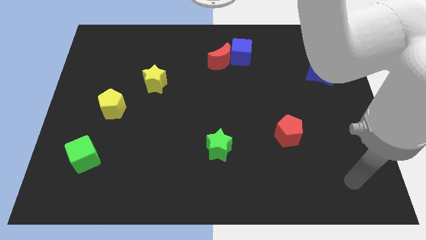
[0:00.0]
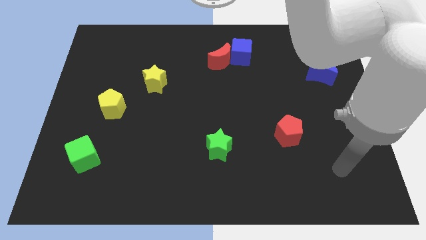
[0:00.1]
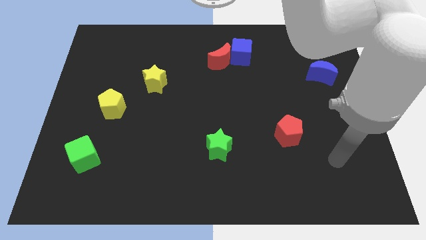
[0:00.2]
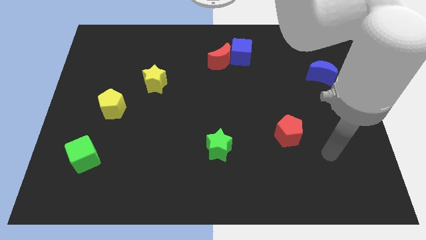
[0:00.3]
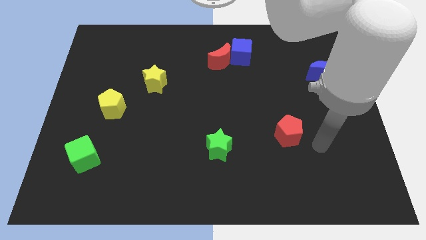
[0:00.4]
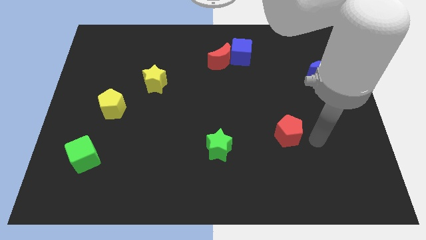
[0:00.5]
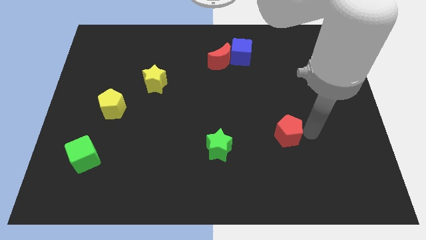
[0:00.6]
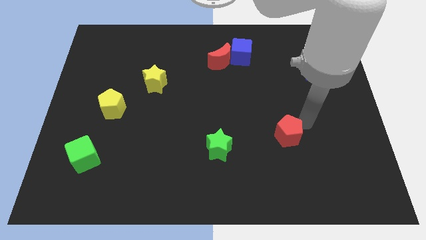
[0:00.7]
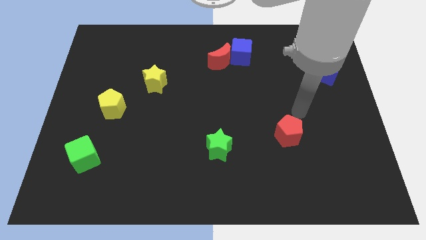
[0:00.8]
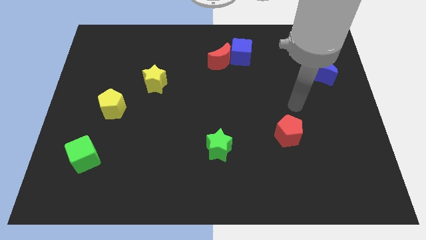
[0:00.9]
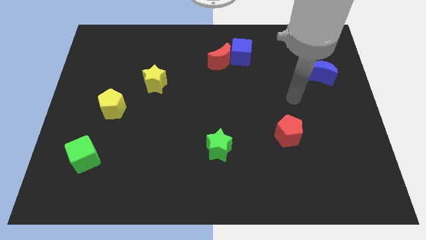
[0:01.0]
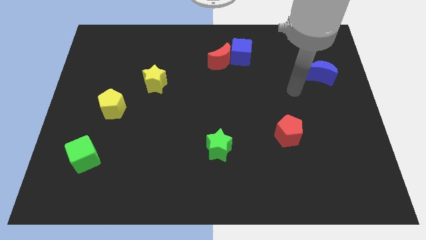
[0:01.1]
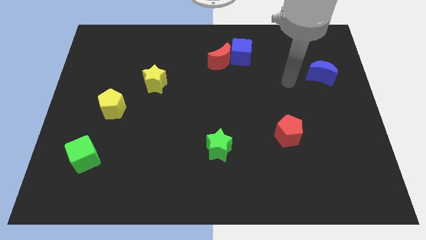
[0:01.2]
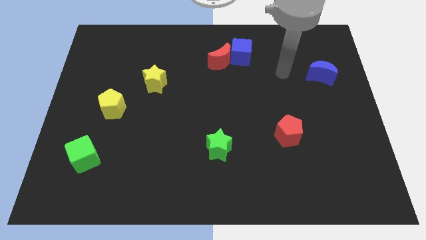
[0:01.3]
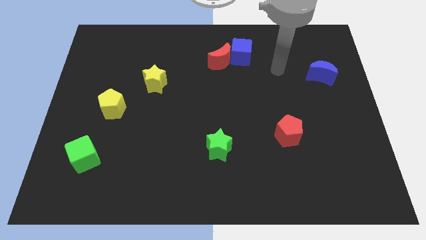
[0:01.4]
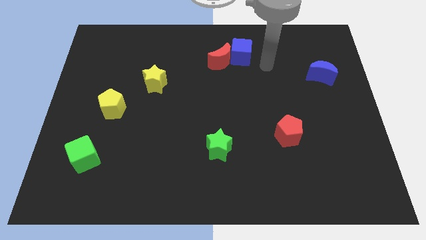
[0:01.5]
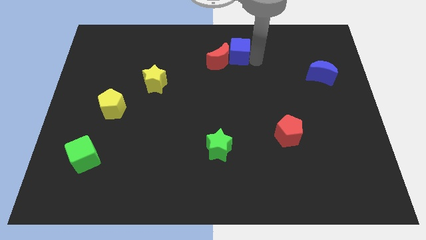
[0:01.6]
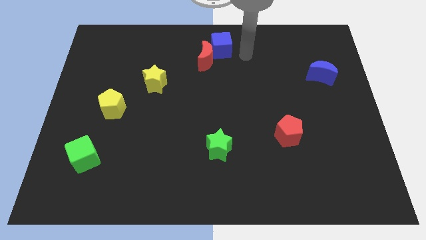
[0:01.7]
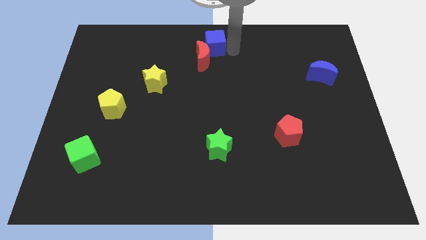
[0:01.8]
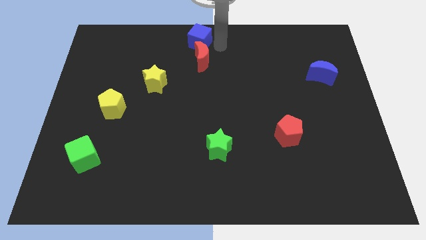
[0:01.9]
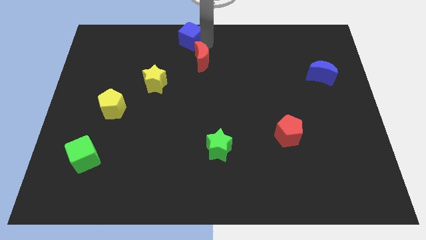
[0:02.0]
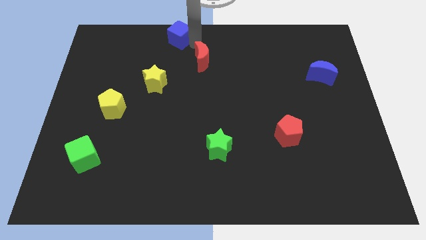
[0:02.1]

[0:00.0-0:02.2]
separate the red moon from the blue cube

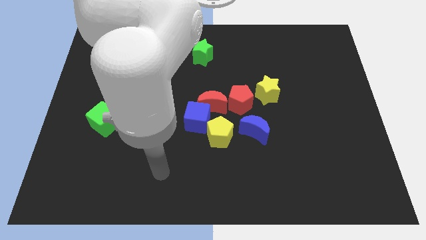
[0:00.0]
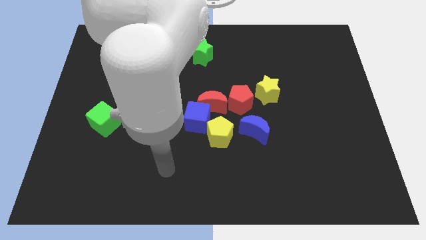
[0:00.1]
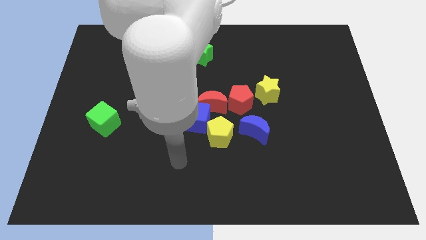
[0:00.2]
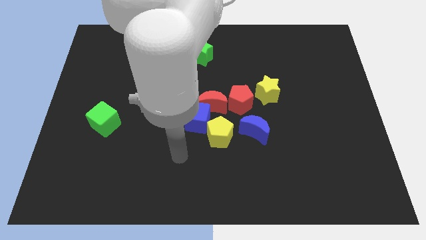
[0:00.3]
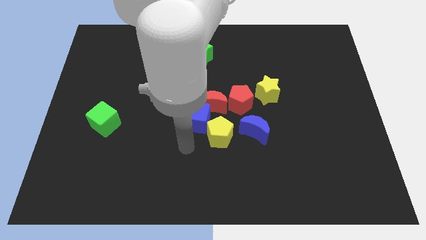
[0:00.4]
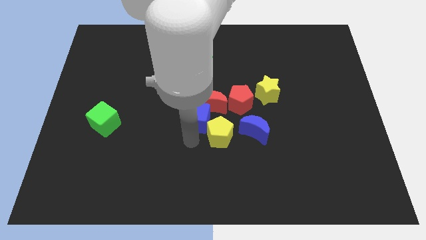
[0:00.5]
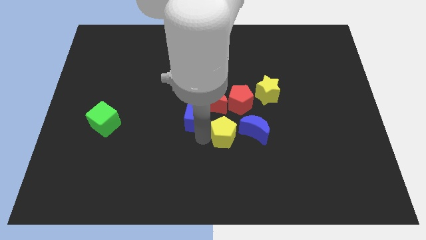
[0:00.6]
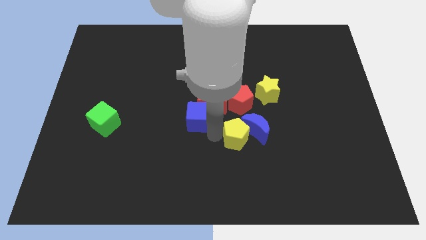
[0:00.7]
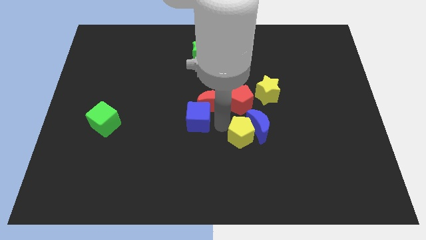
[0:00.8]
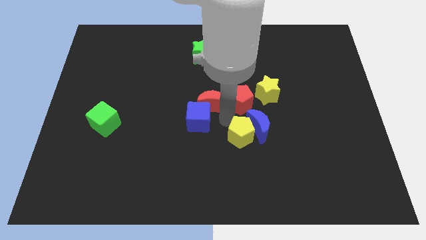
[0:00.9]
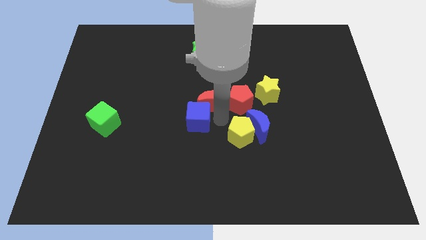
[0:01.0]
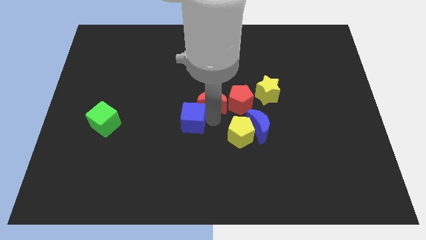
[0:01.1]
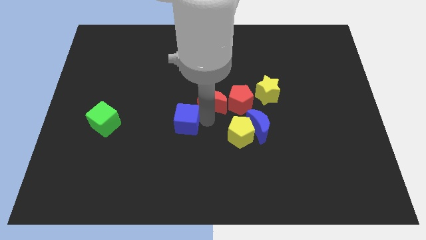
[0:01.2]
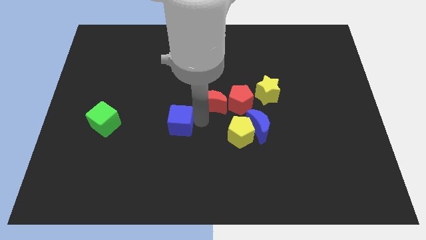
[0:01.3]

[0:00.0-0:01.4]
pull the blue cube apart from the red moon and yellow pentagon

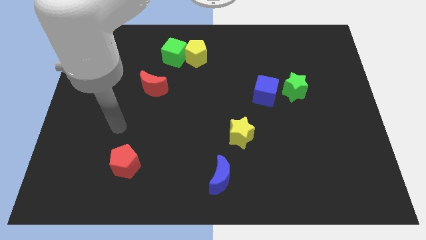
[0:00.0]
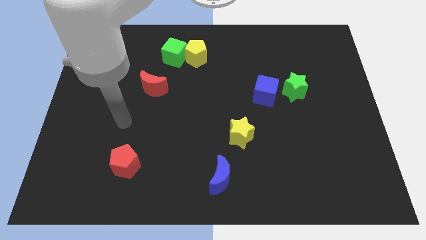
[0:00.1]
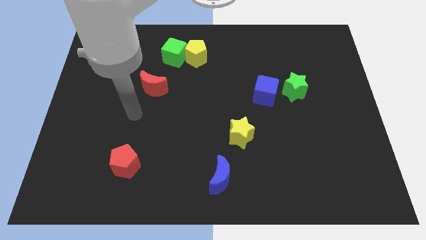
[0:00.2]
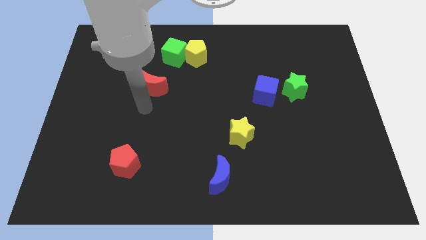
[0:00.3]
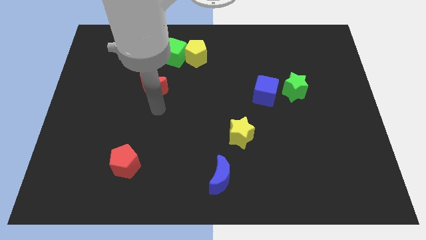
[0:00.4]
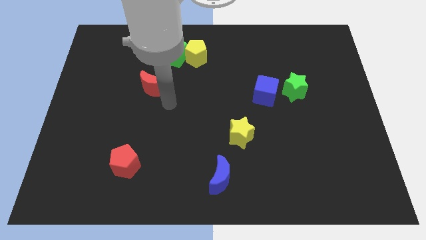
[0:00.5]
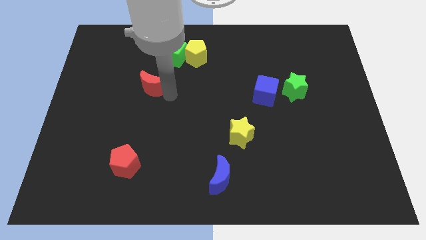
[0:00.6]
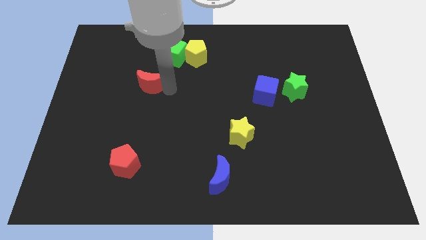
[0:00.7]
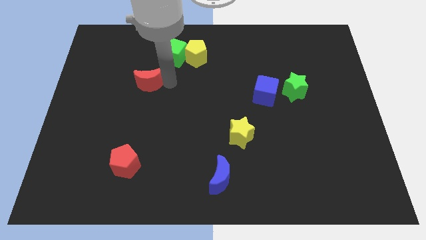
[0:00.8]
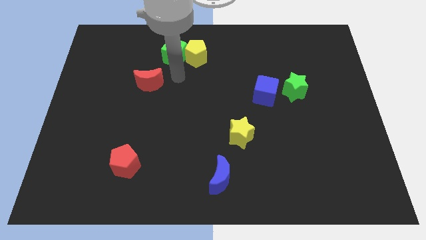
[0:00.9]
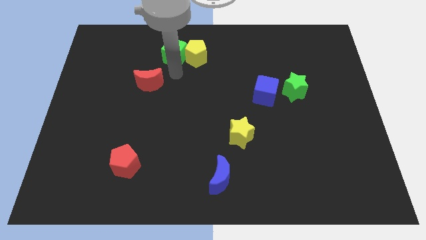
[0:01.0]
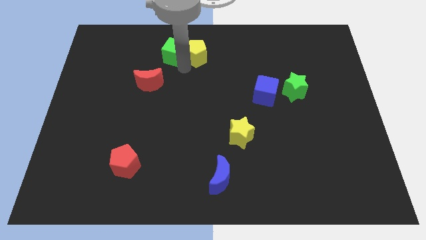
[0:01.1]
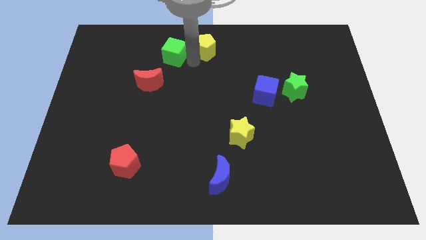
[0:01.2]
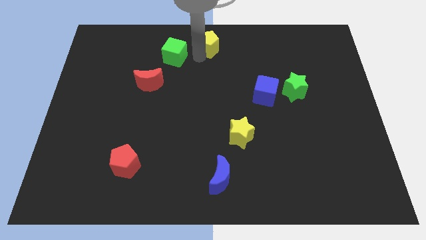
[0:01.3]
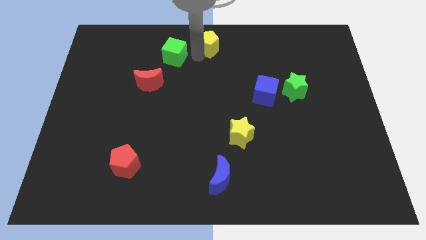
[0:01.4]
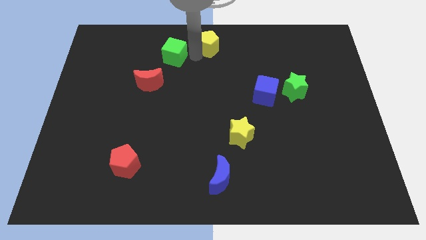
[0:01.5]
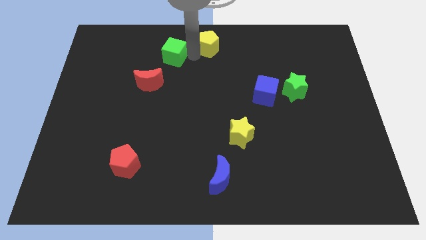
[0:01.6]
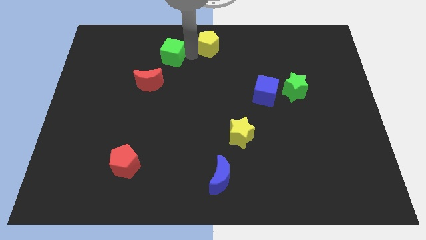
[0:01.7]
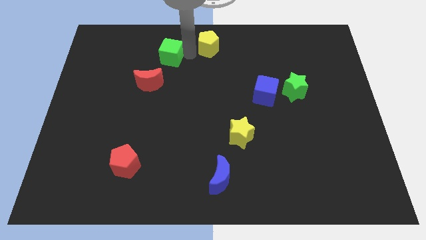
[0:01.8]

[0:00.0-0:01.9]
separate the green cube from the yellow pentagon

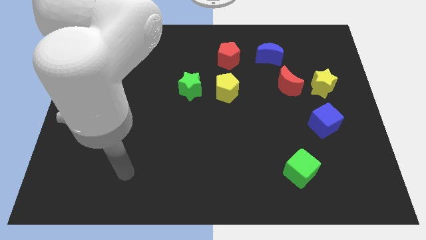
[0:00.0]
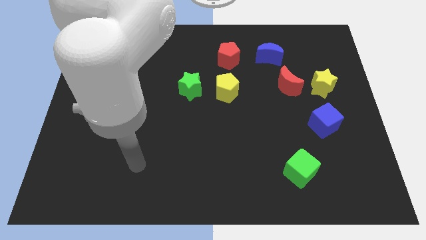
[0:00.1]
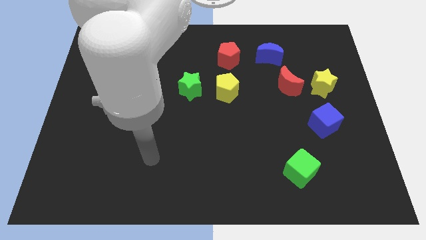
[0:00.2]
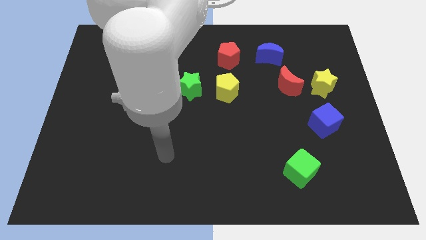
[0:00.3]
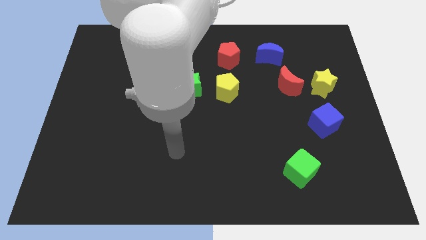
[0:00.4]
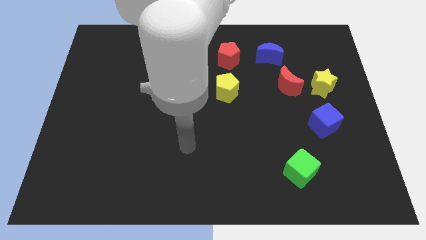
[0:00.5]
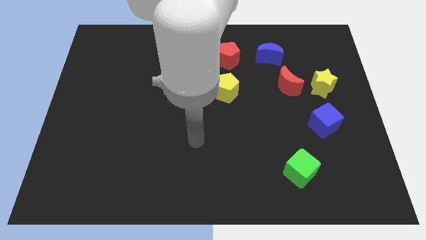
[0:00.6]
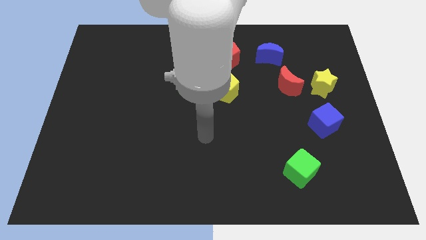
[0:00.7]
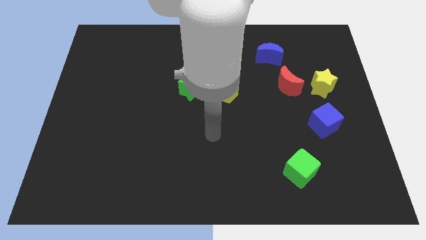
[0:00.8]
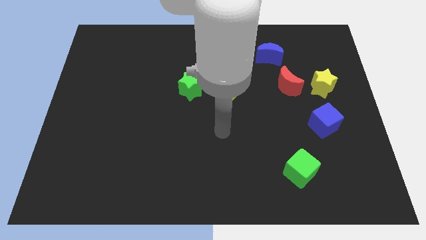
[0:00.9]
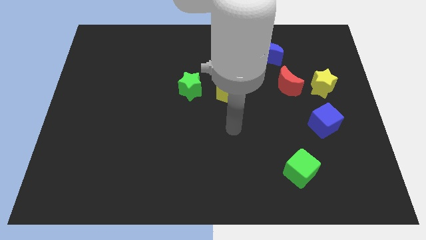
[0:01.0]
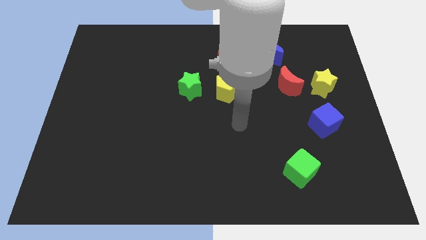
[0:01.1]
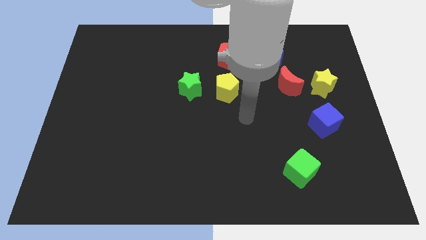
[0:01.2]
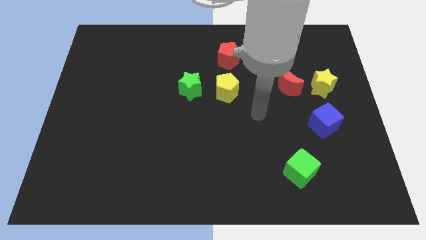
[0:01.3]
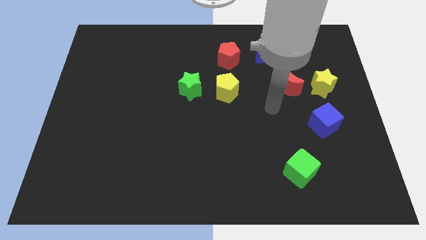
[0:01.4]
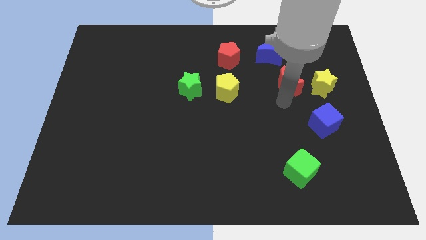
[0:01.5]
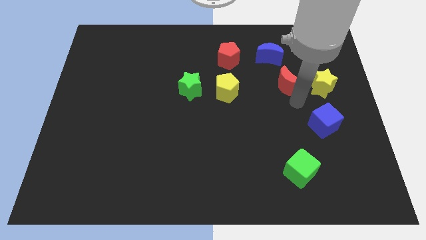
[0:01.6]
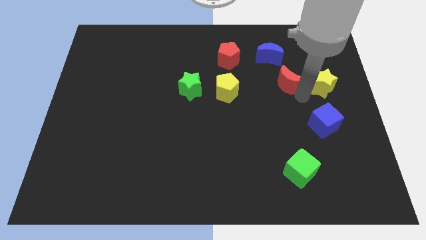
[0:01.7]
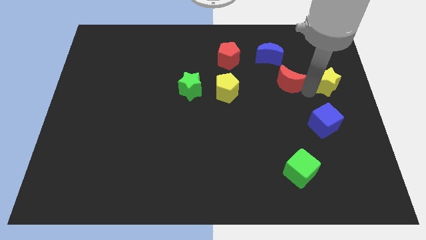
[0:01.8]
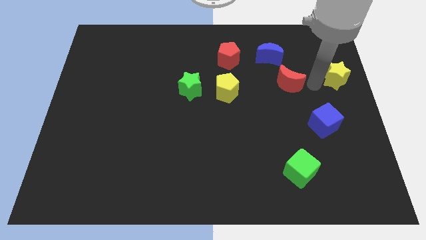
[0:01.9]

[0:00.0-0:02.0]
pull the red moon apart from the yellow star

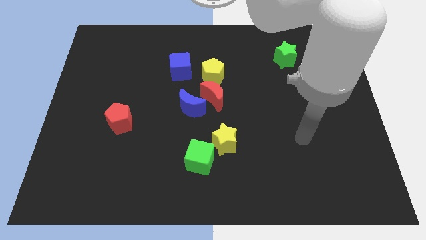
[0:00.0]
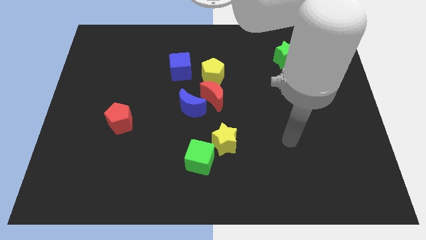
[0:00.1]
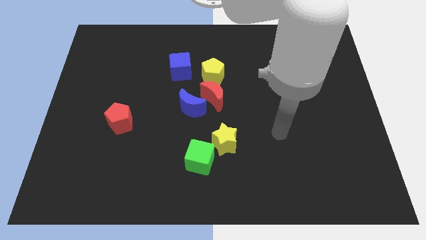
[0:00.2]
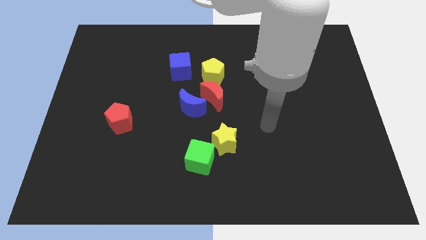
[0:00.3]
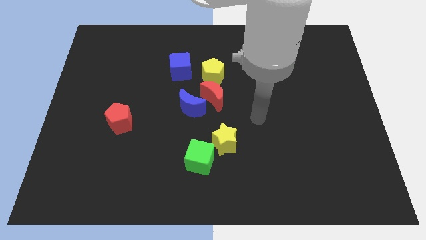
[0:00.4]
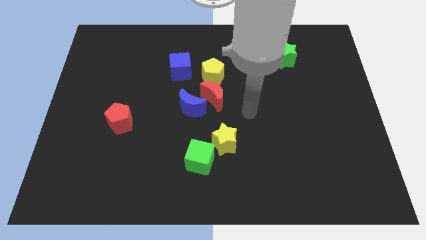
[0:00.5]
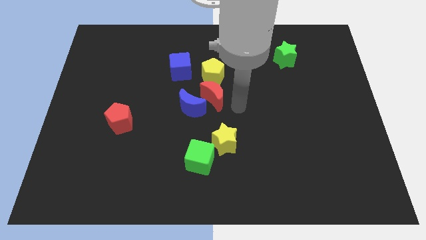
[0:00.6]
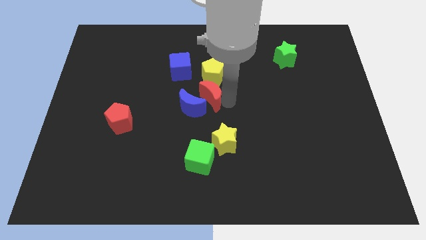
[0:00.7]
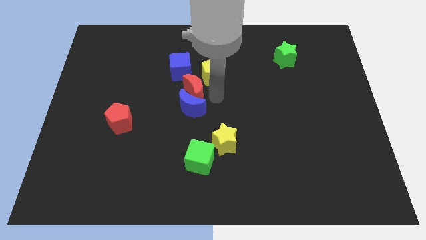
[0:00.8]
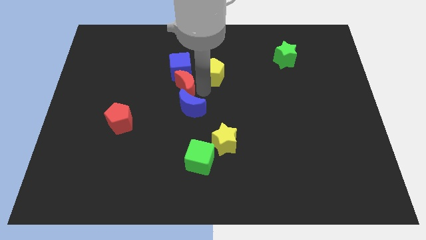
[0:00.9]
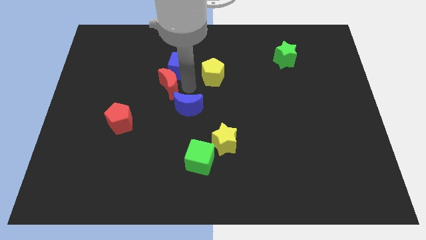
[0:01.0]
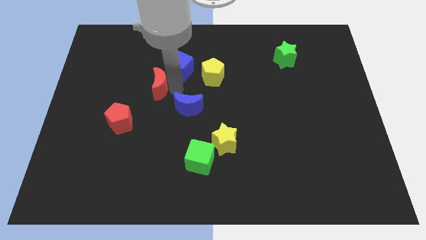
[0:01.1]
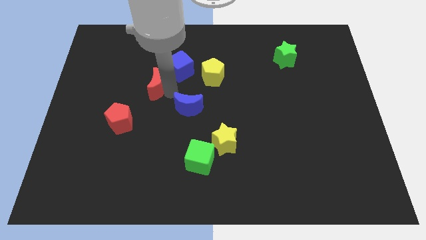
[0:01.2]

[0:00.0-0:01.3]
separate the blue moon from the red moon

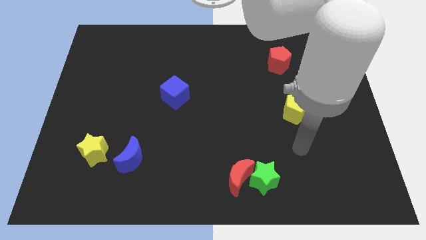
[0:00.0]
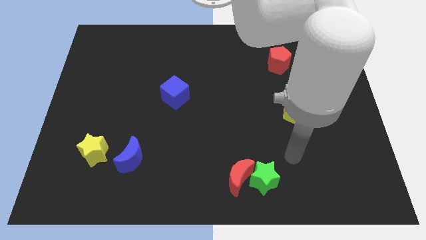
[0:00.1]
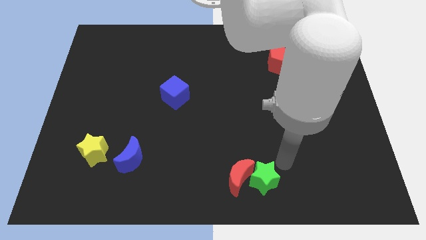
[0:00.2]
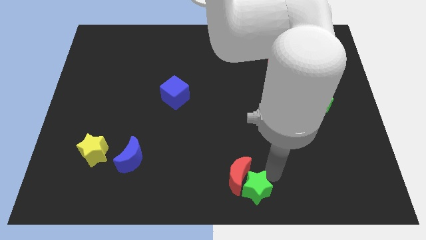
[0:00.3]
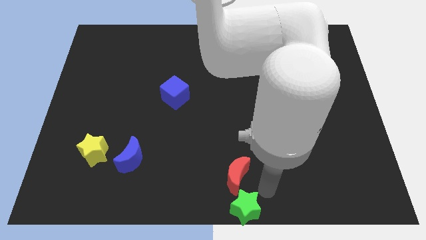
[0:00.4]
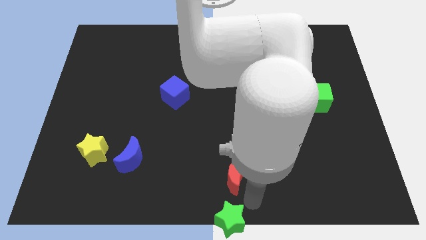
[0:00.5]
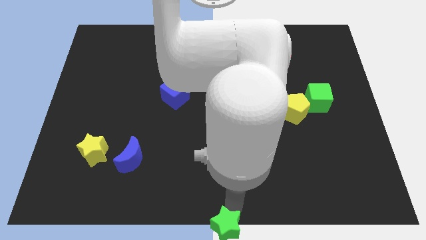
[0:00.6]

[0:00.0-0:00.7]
separate the red moon from the green star

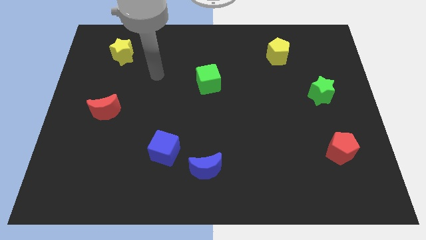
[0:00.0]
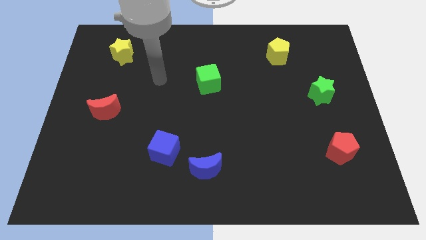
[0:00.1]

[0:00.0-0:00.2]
separate the blue moon from the blue cube
